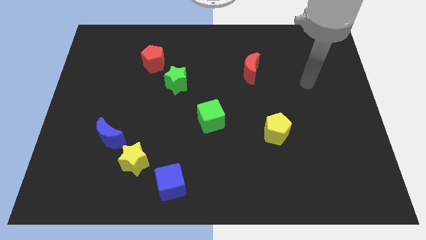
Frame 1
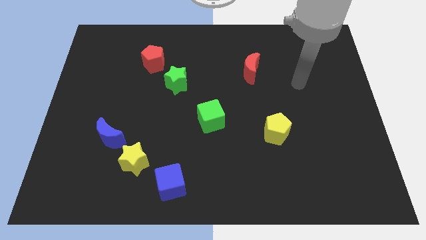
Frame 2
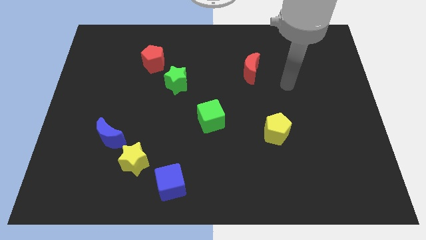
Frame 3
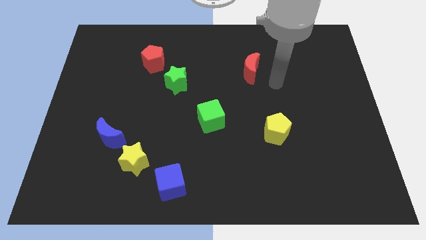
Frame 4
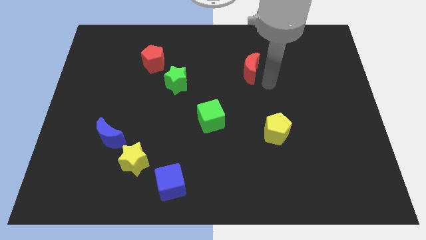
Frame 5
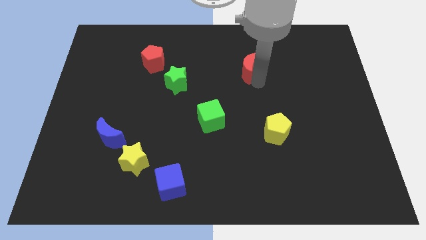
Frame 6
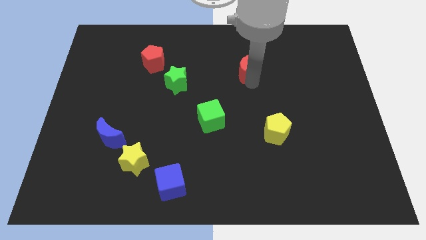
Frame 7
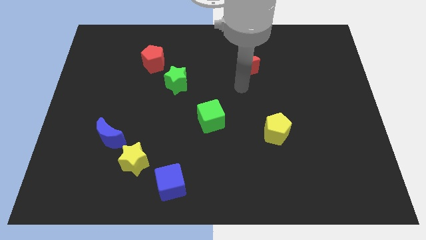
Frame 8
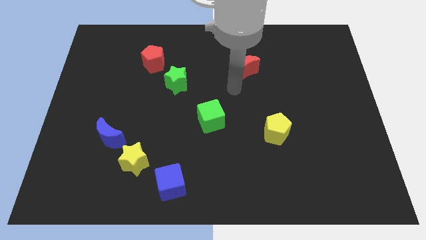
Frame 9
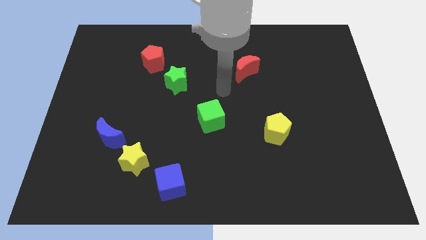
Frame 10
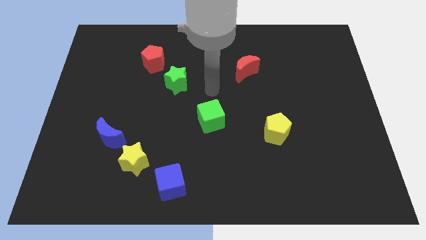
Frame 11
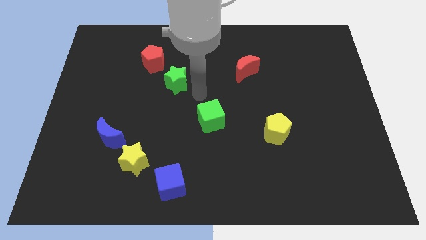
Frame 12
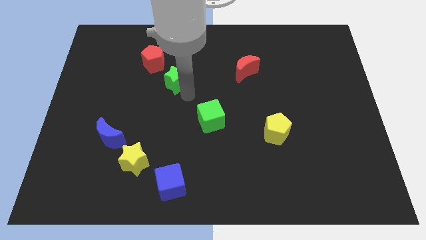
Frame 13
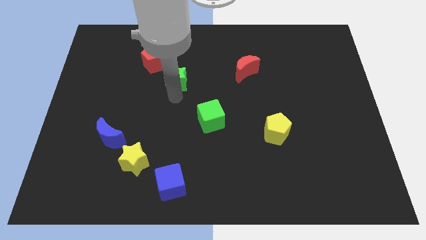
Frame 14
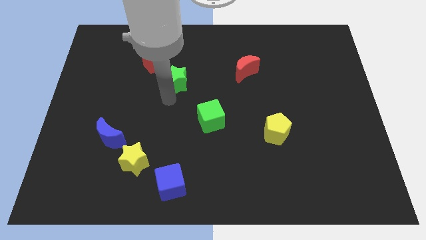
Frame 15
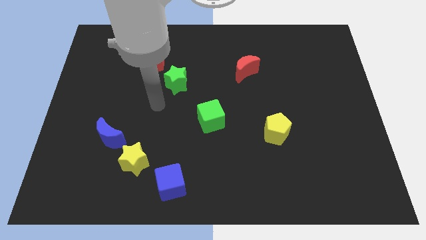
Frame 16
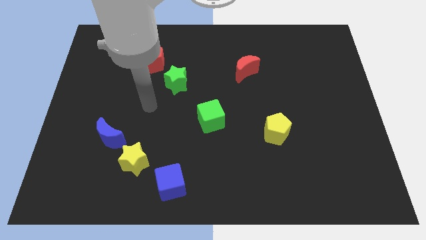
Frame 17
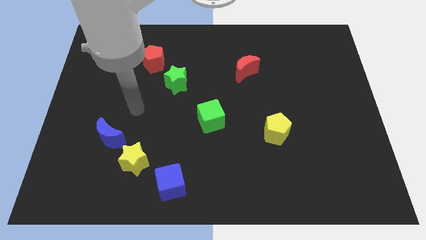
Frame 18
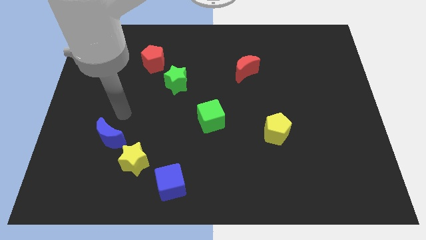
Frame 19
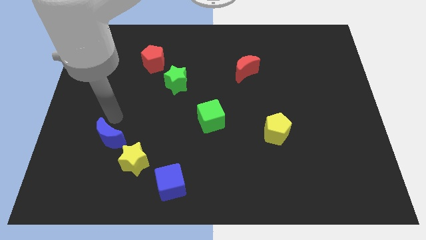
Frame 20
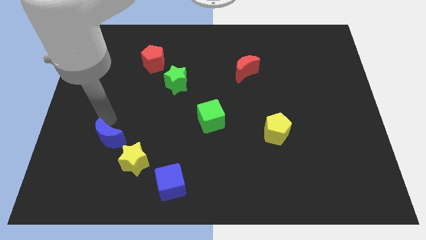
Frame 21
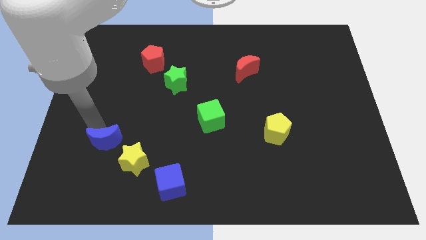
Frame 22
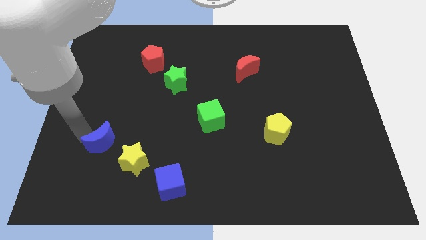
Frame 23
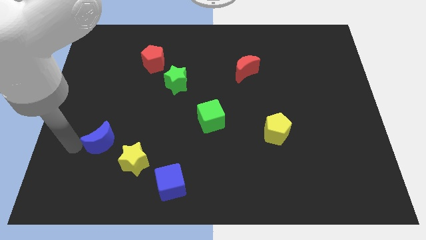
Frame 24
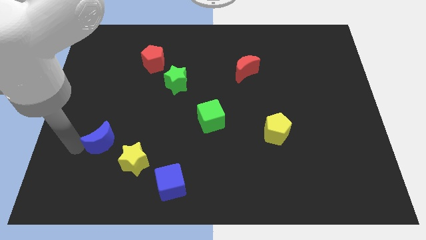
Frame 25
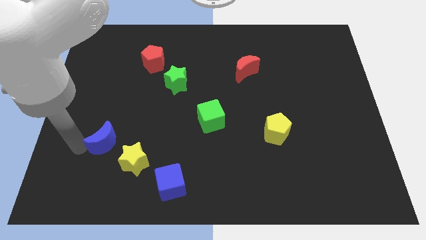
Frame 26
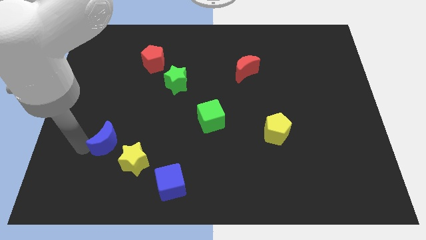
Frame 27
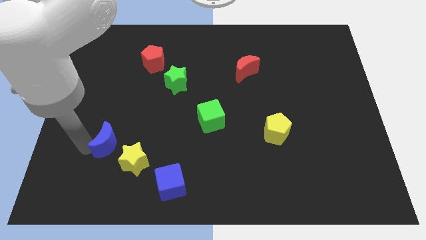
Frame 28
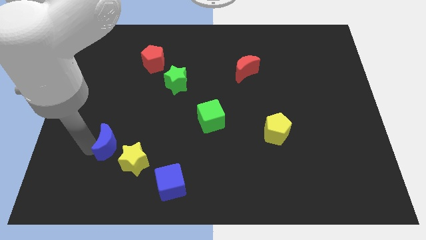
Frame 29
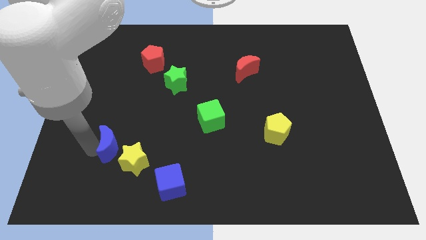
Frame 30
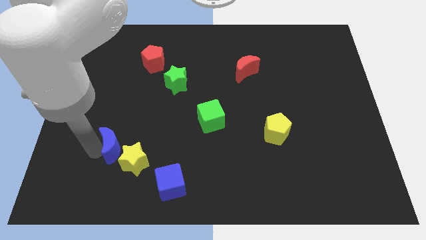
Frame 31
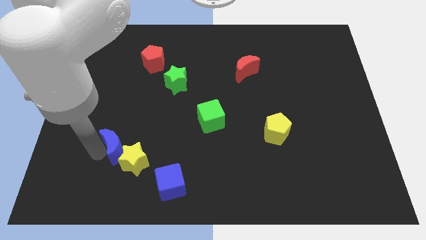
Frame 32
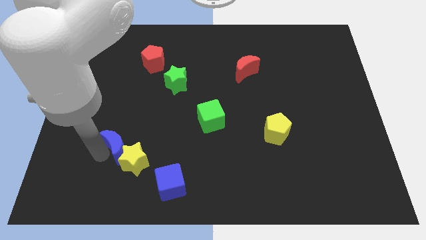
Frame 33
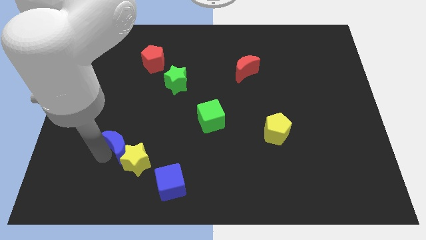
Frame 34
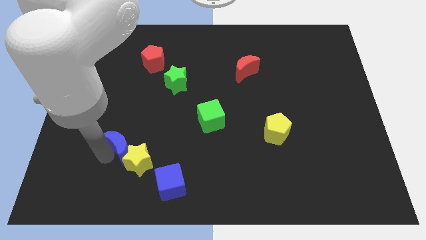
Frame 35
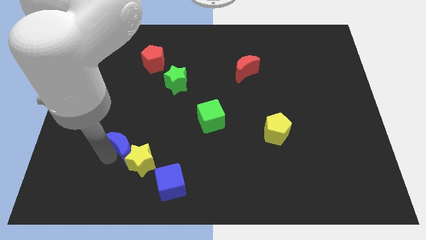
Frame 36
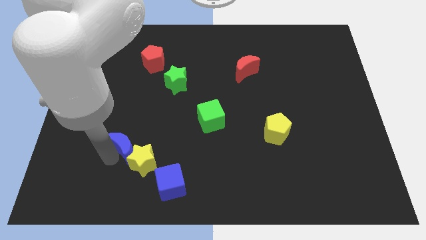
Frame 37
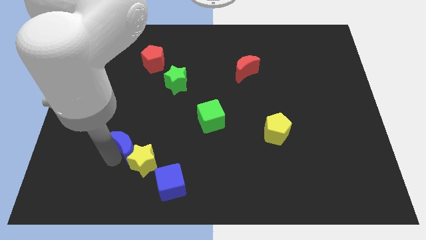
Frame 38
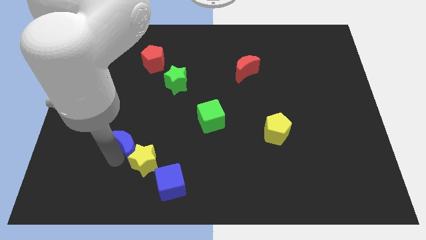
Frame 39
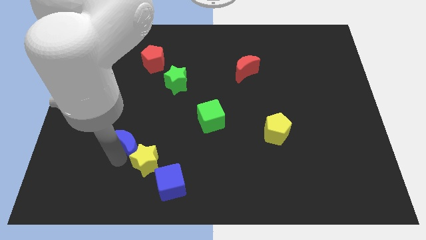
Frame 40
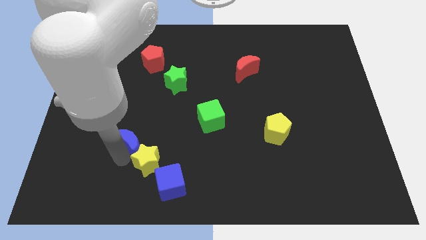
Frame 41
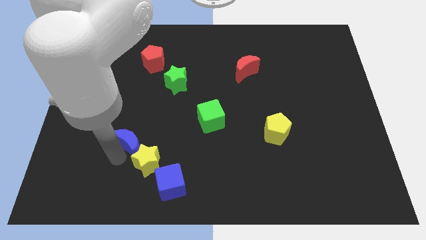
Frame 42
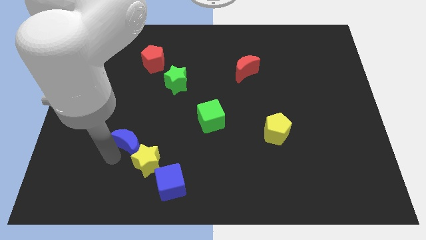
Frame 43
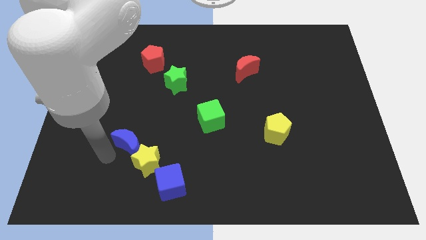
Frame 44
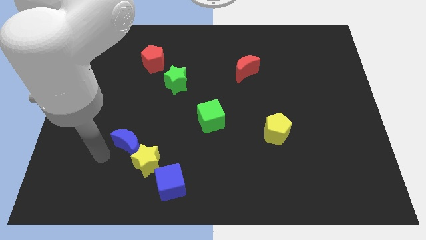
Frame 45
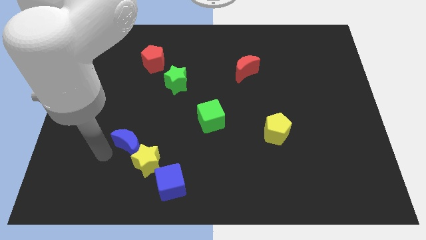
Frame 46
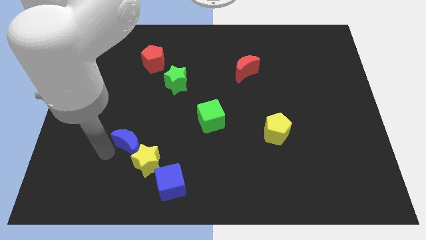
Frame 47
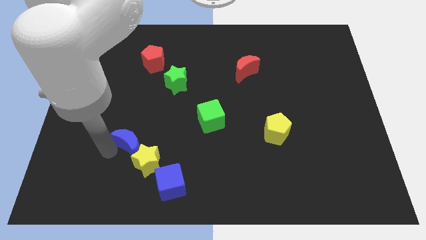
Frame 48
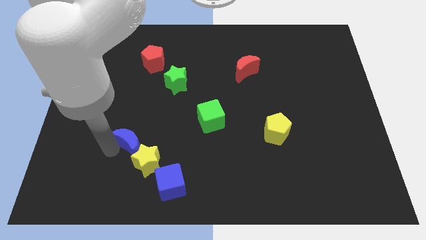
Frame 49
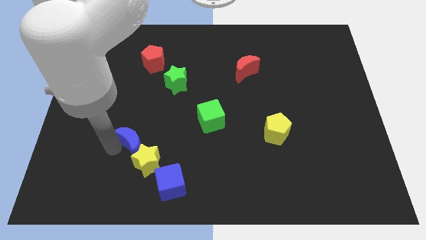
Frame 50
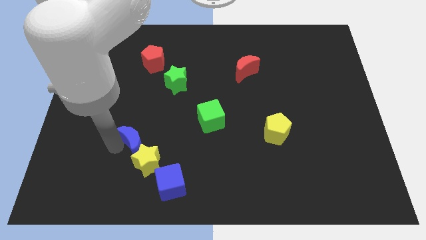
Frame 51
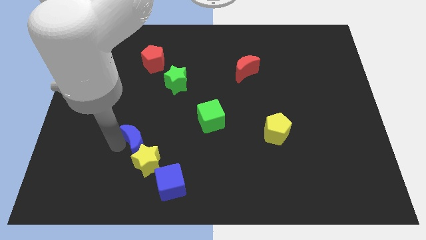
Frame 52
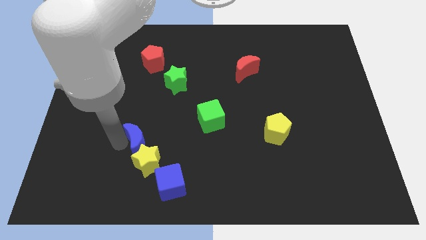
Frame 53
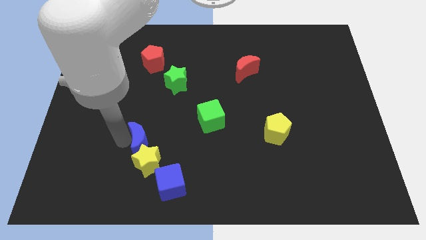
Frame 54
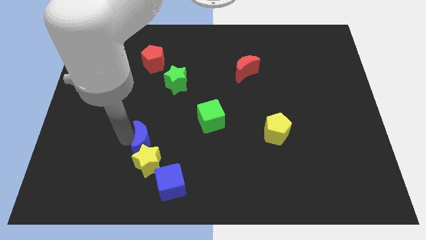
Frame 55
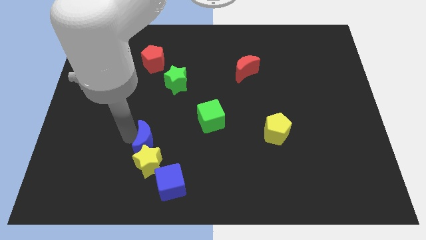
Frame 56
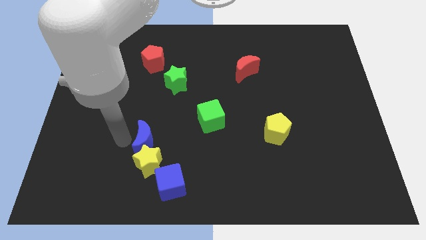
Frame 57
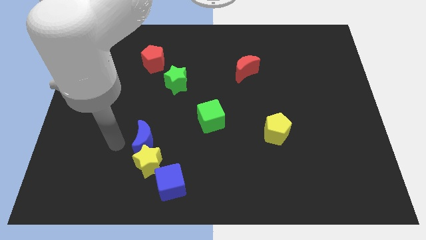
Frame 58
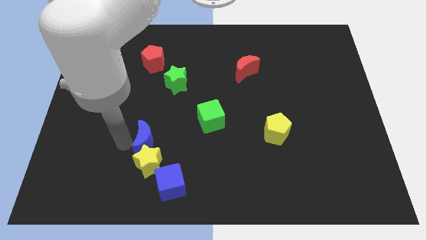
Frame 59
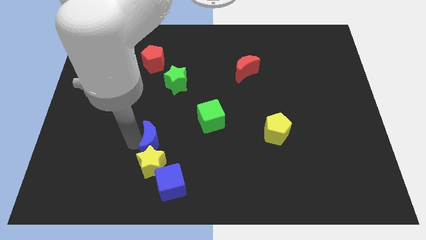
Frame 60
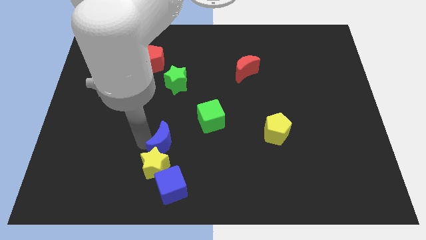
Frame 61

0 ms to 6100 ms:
push the blue moon to the bottom left of the green cube

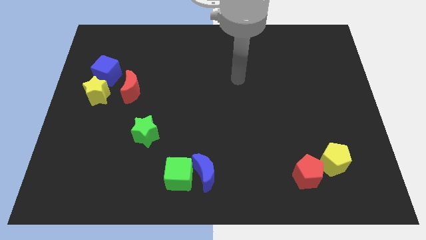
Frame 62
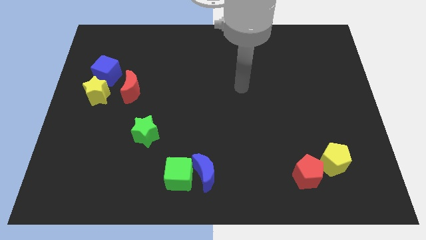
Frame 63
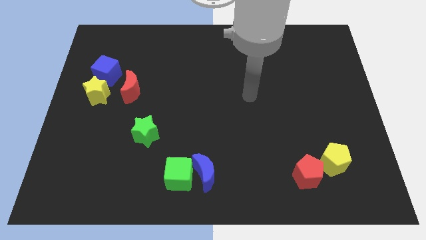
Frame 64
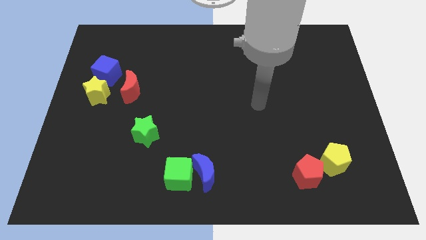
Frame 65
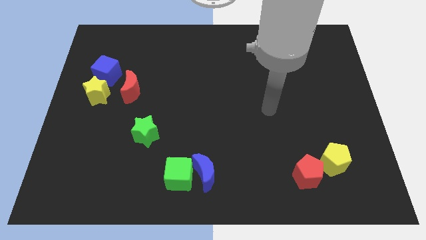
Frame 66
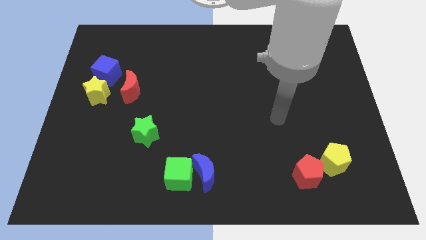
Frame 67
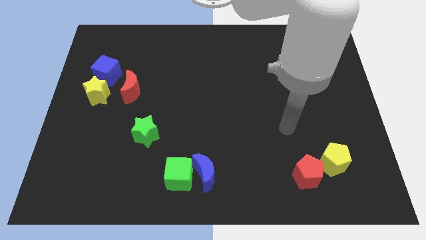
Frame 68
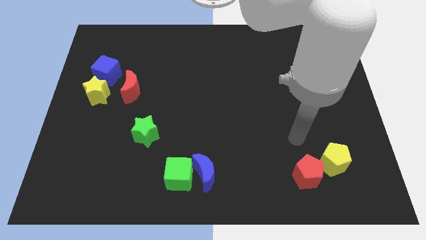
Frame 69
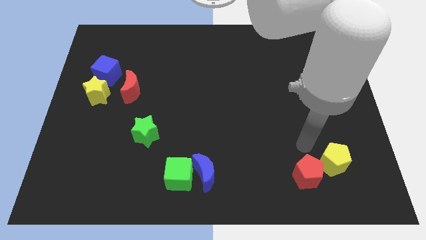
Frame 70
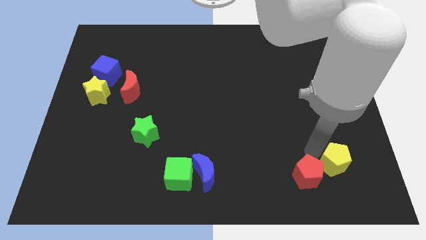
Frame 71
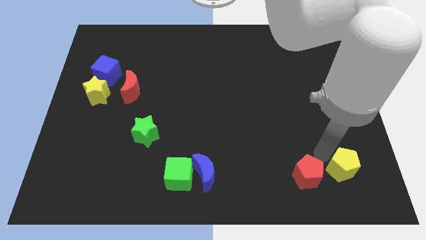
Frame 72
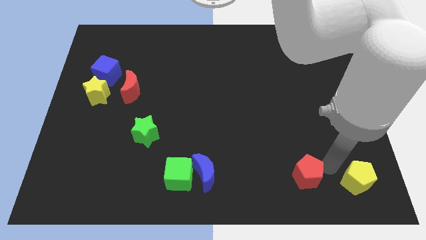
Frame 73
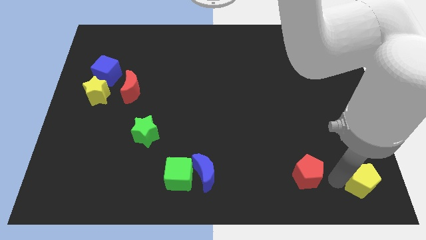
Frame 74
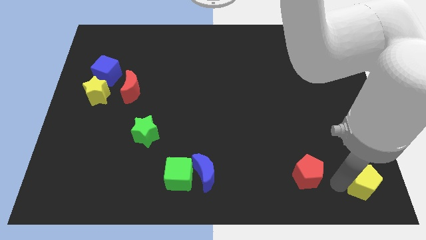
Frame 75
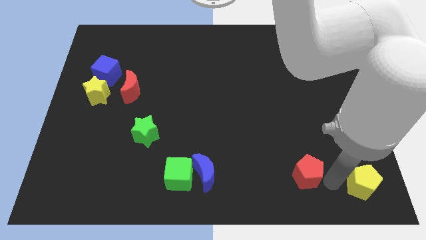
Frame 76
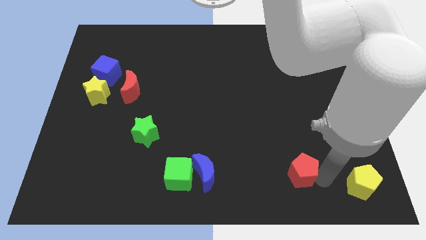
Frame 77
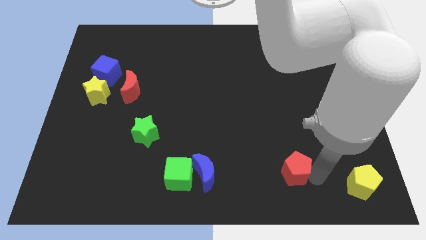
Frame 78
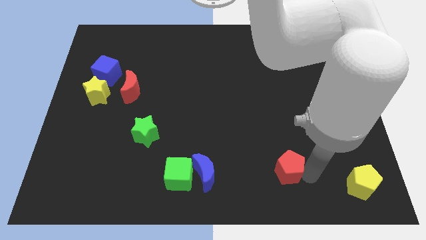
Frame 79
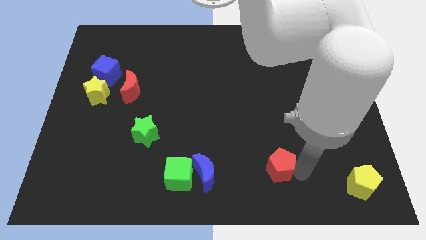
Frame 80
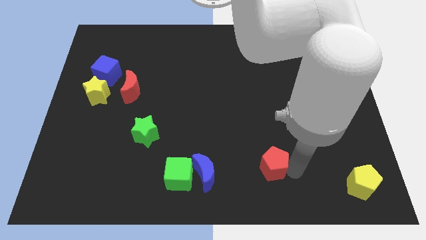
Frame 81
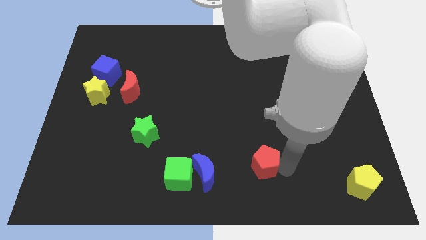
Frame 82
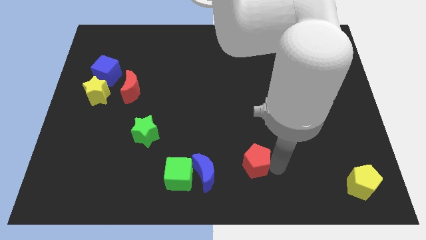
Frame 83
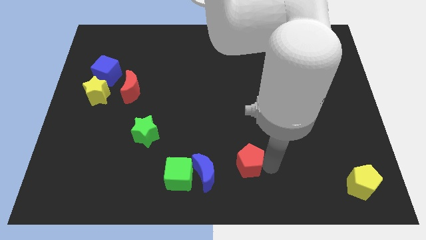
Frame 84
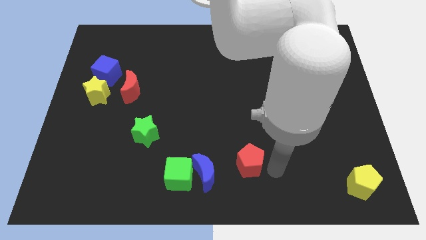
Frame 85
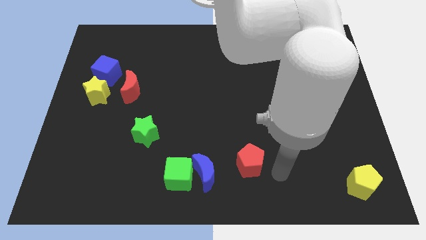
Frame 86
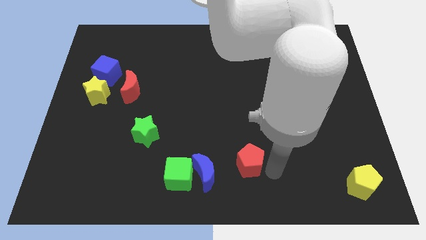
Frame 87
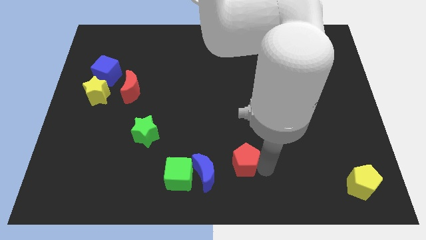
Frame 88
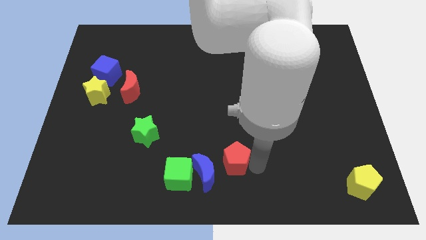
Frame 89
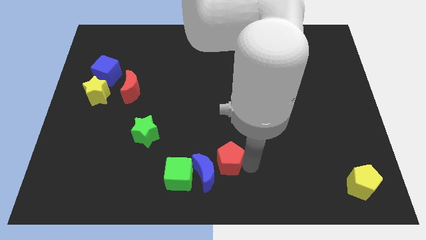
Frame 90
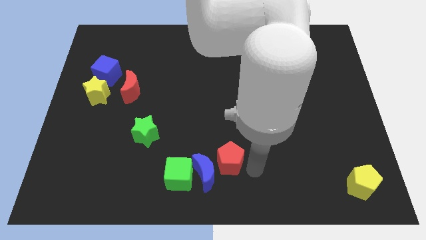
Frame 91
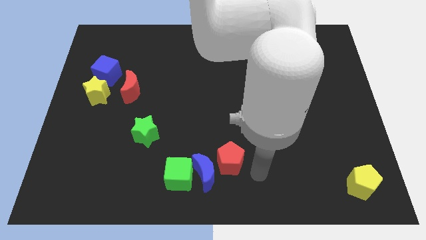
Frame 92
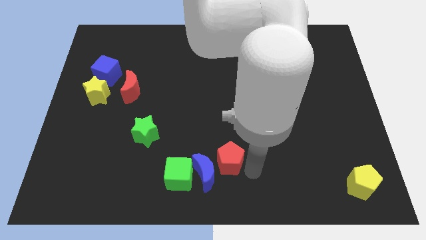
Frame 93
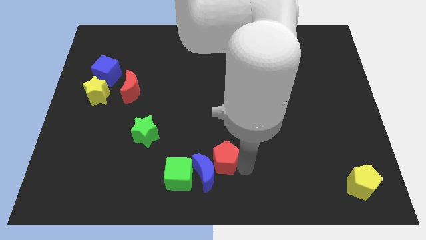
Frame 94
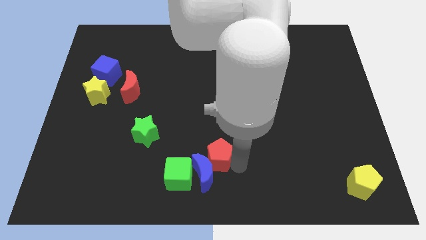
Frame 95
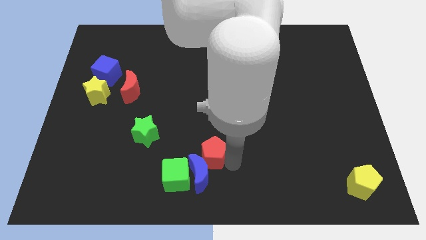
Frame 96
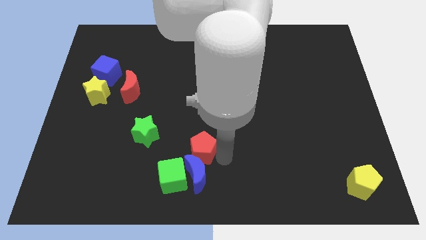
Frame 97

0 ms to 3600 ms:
move the red pentagon diagonally up and to the left of the blue moon
